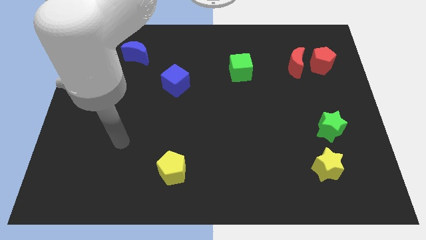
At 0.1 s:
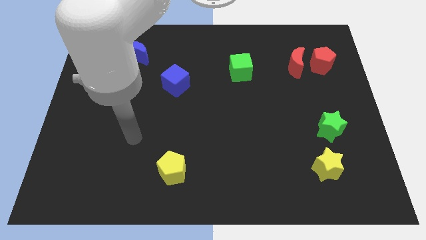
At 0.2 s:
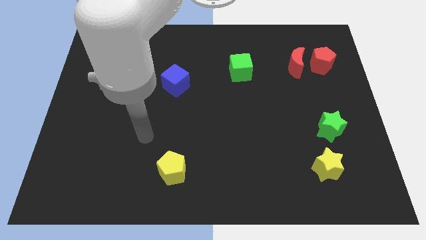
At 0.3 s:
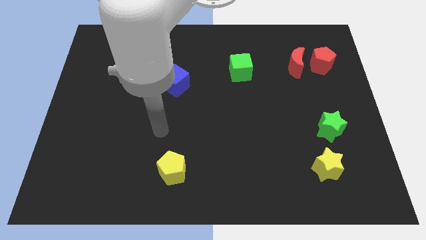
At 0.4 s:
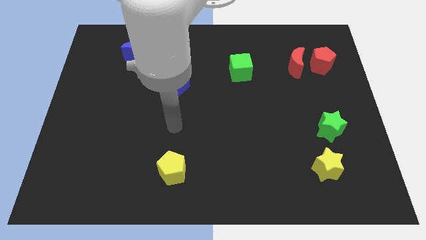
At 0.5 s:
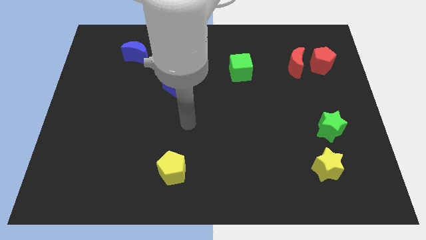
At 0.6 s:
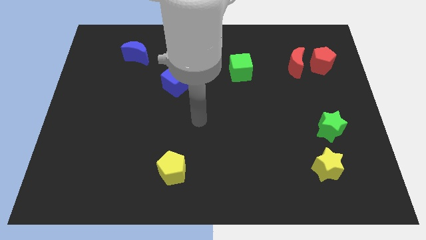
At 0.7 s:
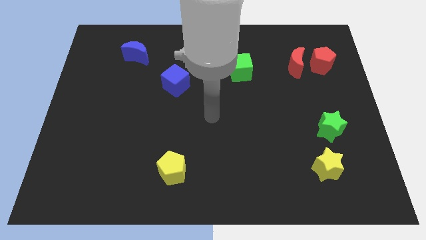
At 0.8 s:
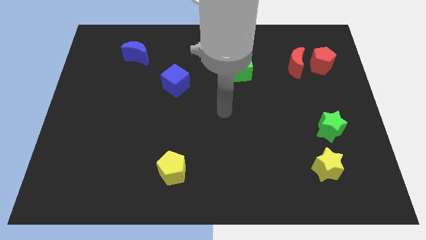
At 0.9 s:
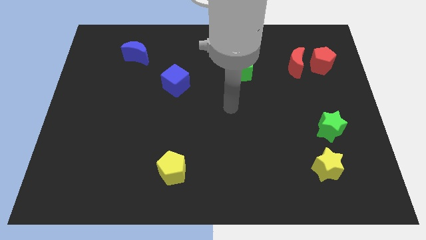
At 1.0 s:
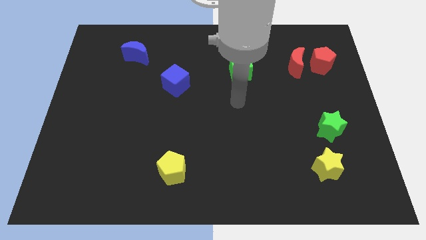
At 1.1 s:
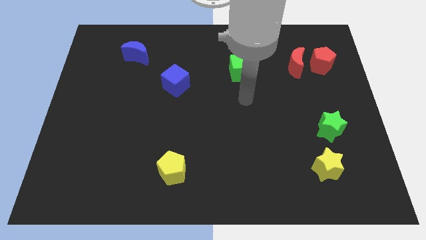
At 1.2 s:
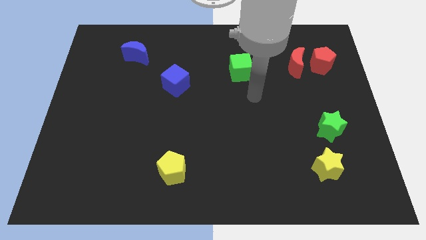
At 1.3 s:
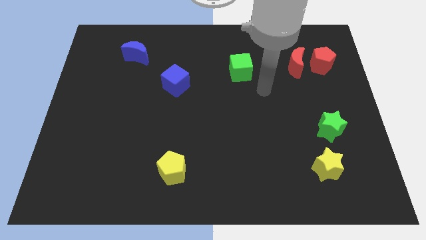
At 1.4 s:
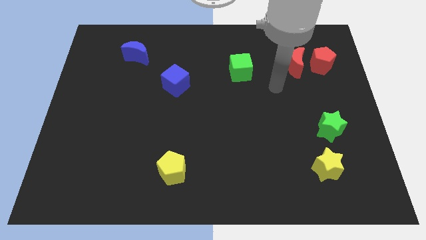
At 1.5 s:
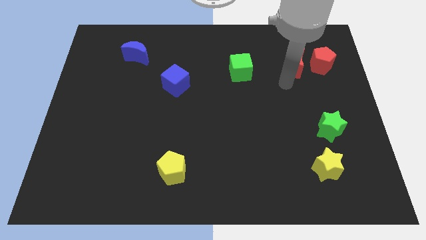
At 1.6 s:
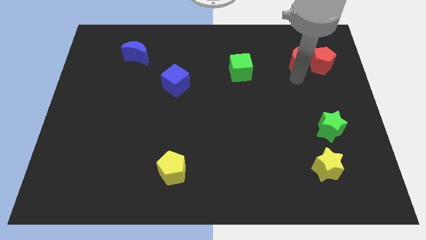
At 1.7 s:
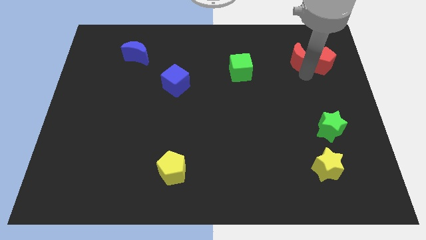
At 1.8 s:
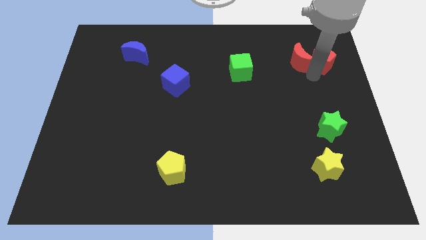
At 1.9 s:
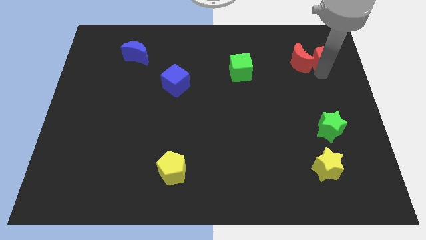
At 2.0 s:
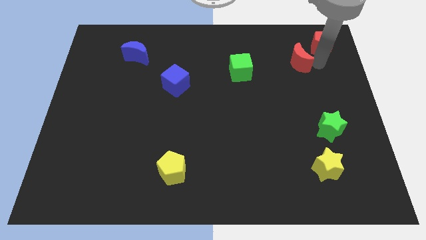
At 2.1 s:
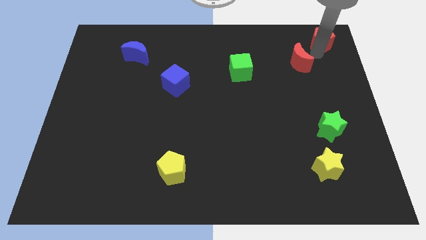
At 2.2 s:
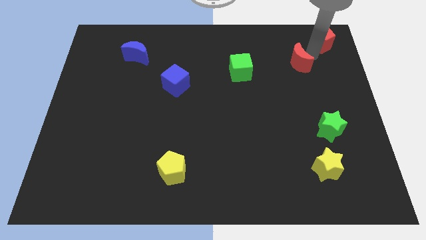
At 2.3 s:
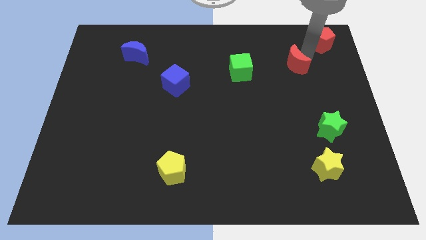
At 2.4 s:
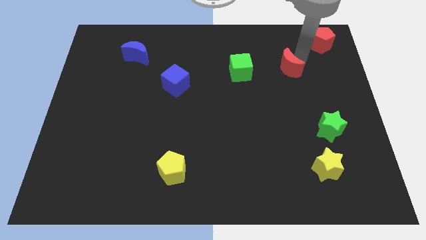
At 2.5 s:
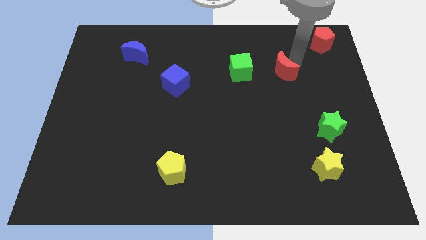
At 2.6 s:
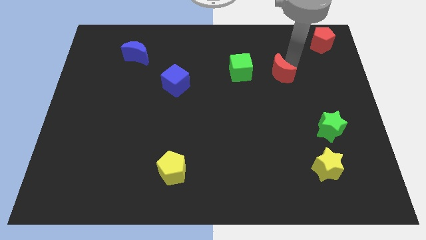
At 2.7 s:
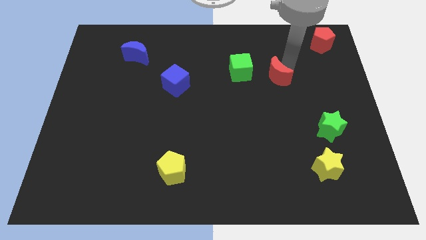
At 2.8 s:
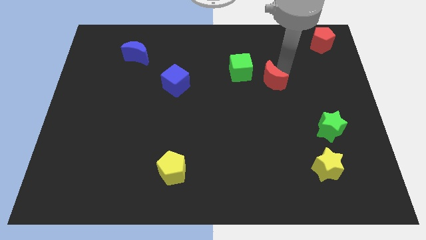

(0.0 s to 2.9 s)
slightly slide the red moon down and then to the left

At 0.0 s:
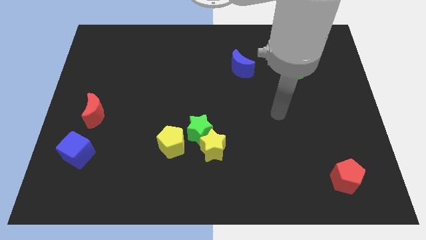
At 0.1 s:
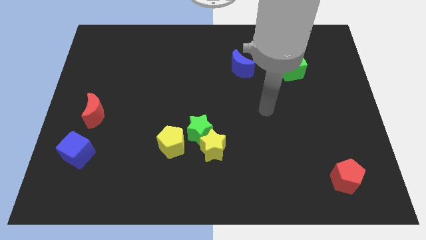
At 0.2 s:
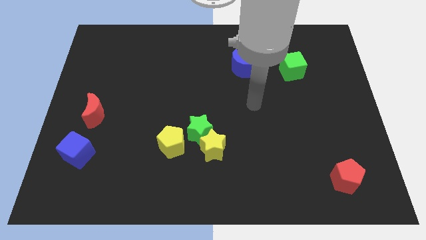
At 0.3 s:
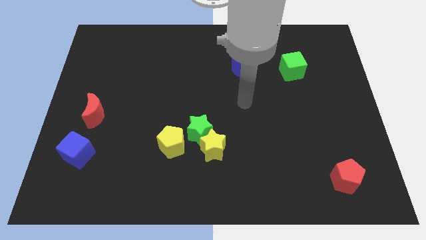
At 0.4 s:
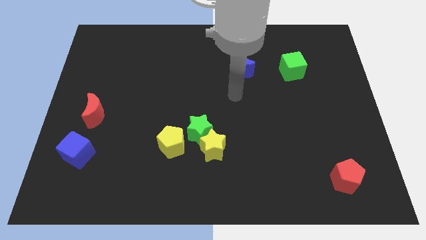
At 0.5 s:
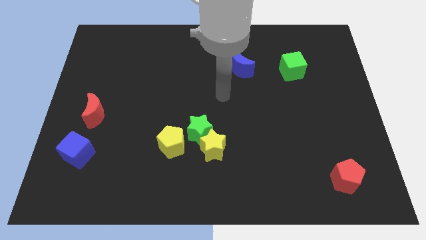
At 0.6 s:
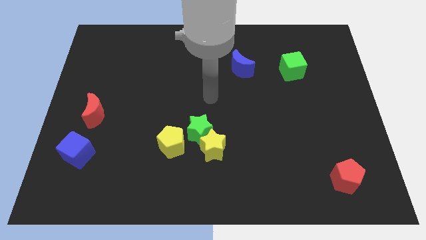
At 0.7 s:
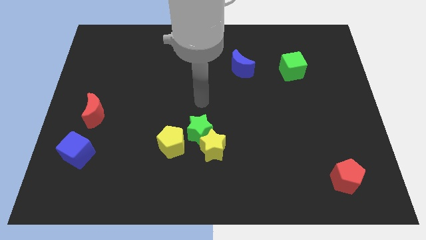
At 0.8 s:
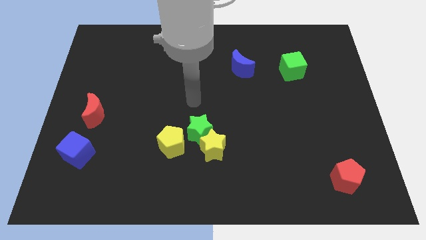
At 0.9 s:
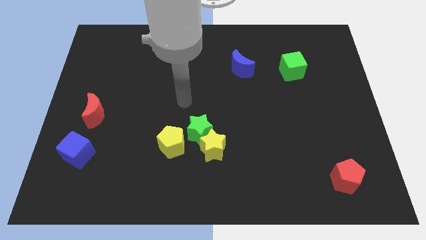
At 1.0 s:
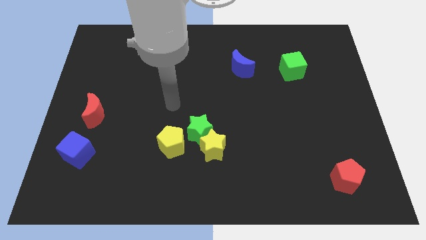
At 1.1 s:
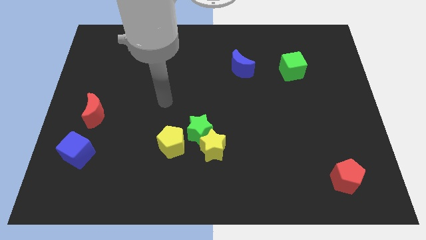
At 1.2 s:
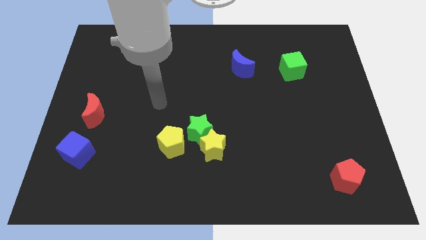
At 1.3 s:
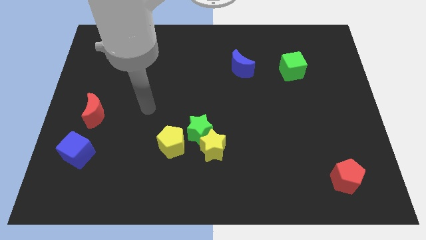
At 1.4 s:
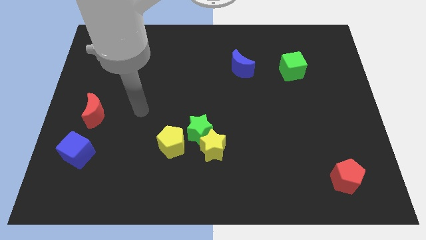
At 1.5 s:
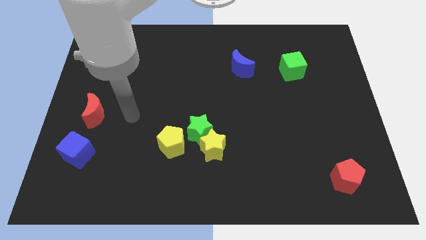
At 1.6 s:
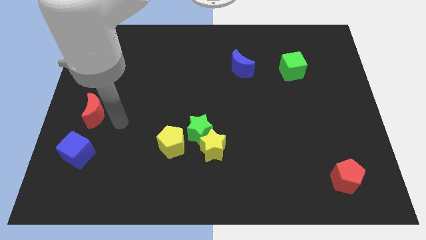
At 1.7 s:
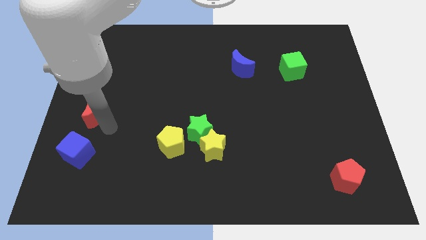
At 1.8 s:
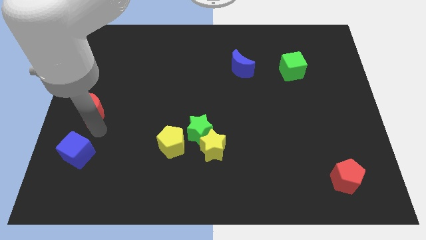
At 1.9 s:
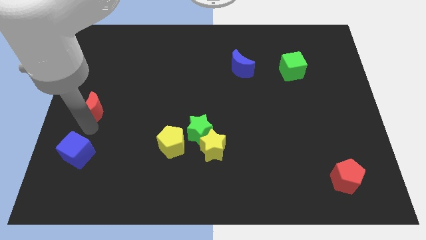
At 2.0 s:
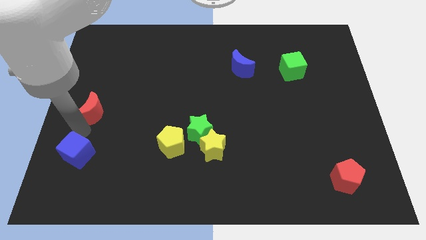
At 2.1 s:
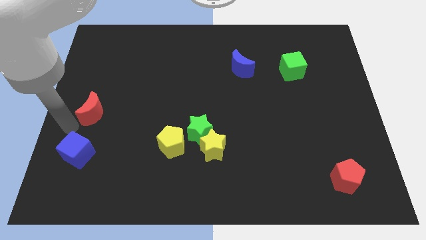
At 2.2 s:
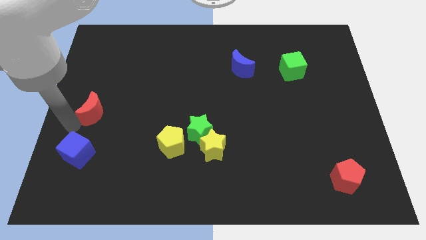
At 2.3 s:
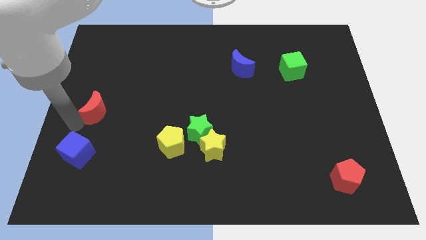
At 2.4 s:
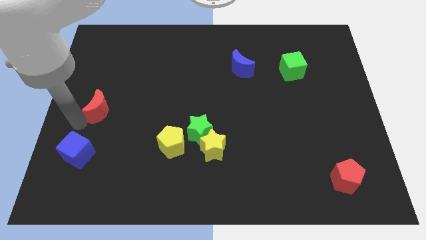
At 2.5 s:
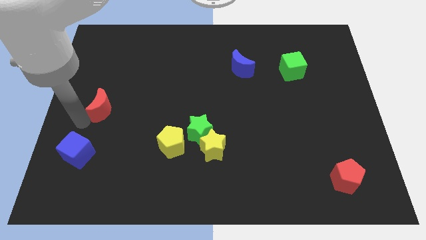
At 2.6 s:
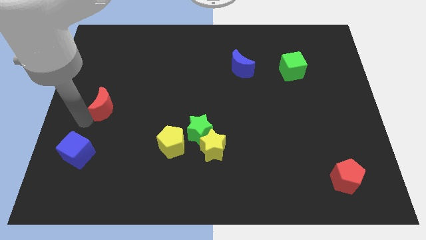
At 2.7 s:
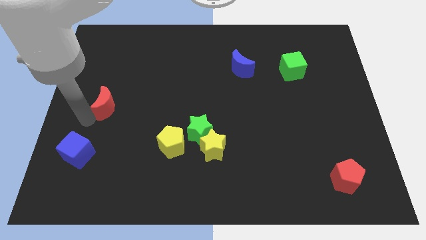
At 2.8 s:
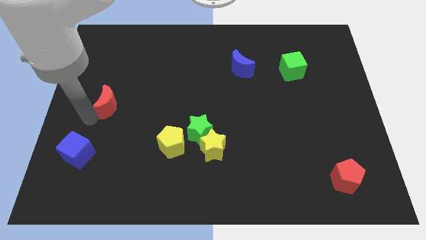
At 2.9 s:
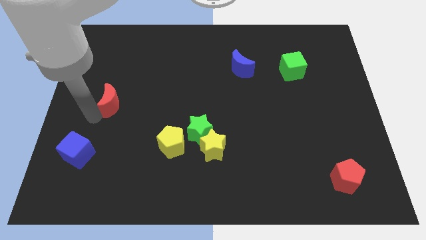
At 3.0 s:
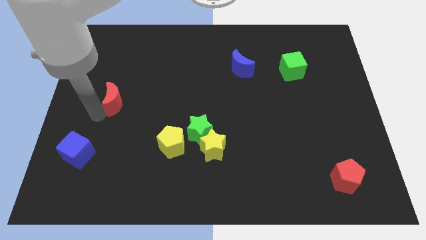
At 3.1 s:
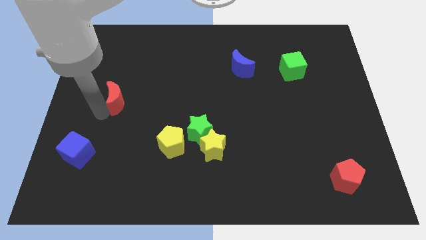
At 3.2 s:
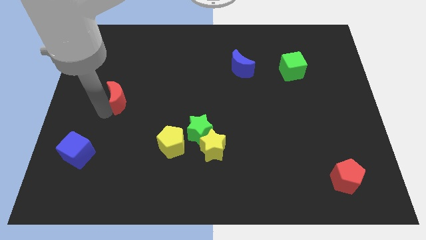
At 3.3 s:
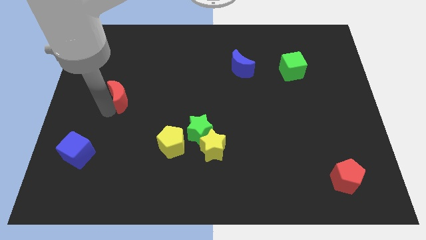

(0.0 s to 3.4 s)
slide the red moon upwards and then to the right a little

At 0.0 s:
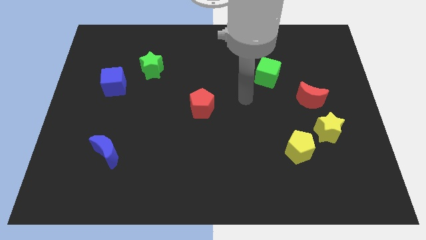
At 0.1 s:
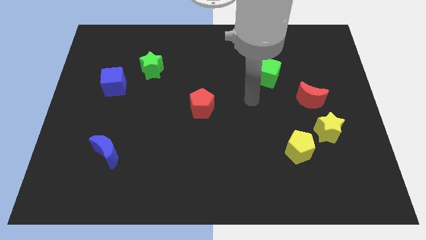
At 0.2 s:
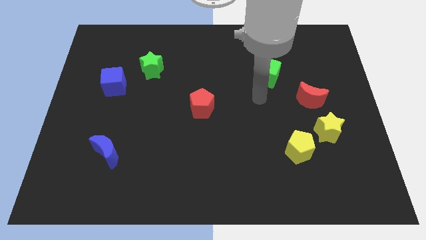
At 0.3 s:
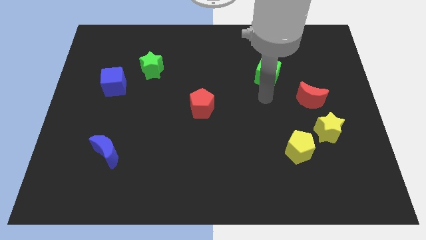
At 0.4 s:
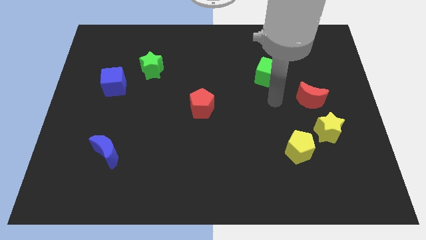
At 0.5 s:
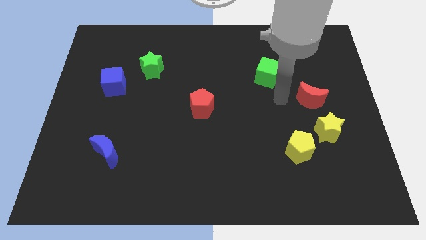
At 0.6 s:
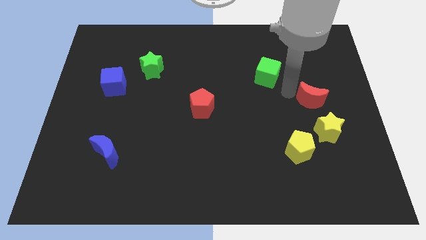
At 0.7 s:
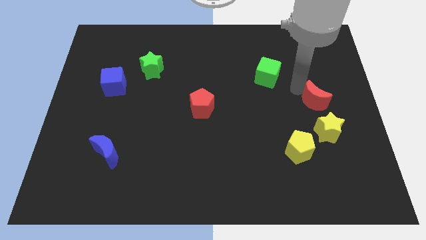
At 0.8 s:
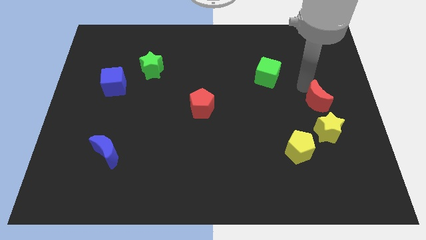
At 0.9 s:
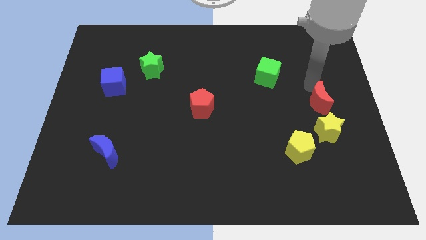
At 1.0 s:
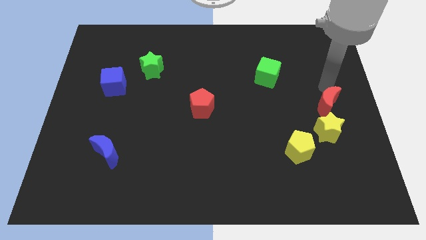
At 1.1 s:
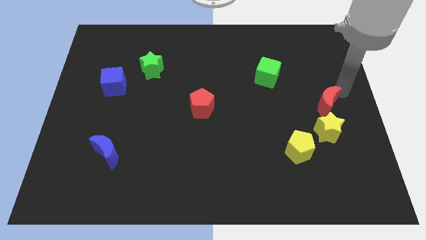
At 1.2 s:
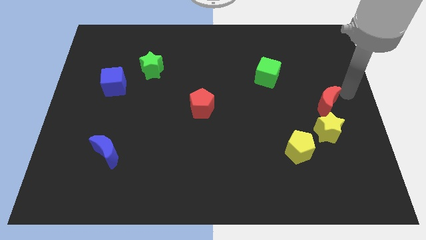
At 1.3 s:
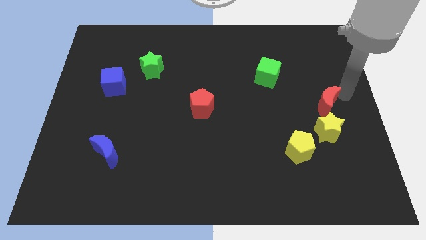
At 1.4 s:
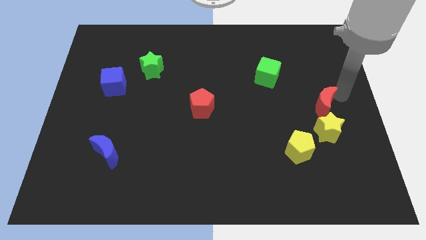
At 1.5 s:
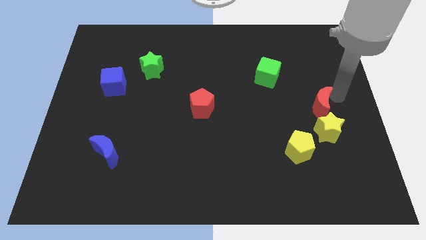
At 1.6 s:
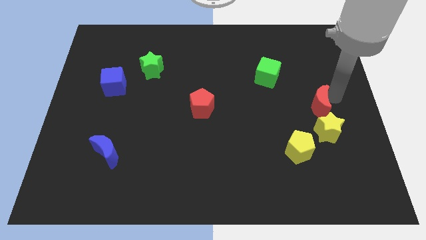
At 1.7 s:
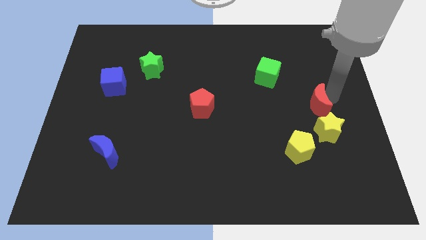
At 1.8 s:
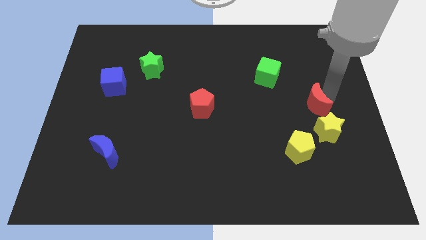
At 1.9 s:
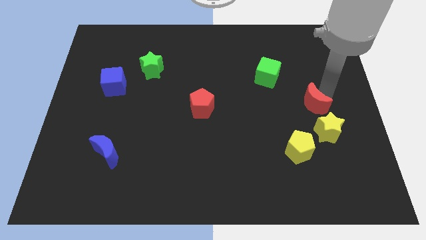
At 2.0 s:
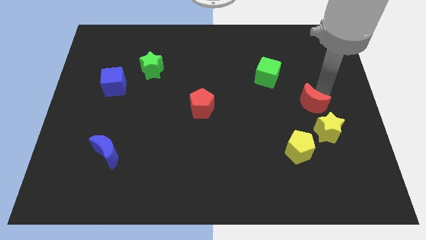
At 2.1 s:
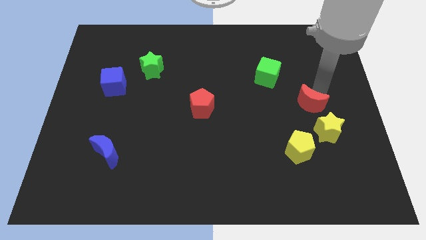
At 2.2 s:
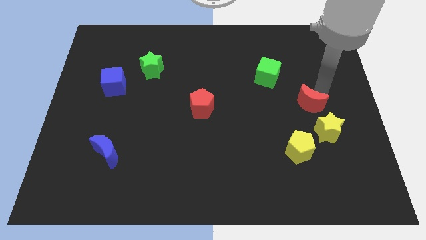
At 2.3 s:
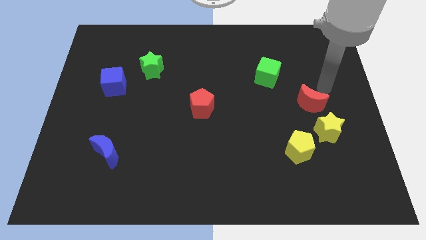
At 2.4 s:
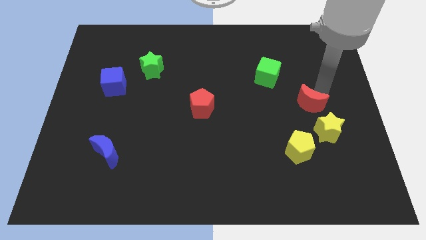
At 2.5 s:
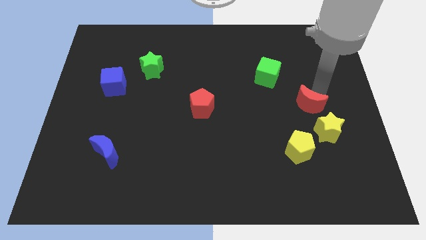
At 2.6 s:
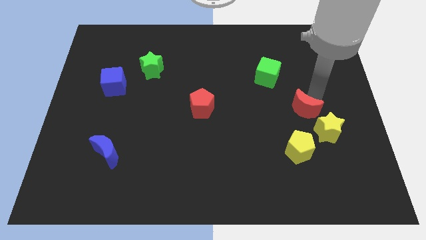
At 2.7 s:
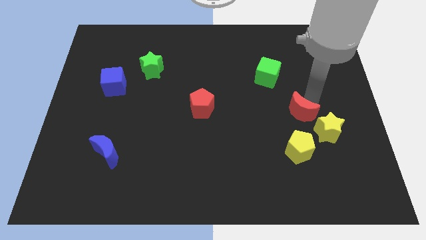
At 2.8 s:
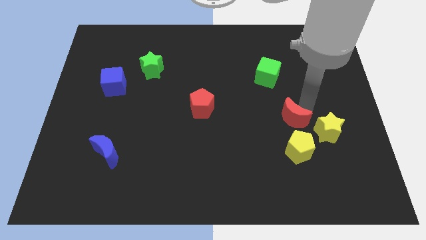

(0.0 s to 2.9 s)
slide the red moon down and left somewhat
